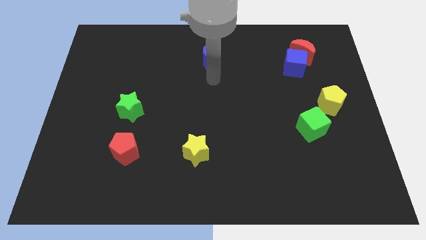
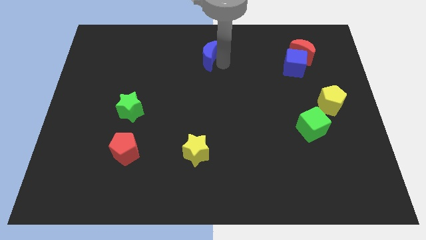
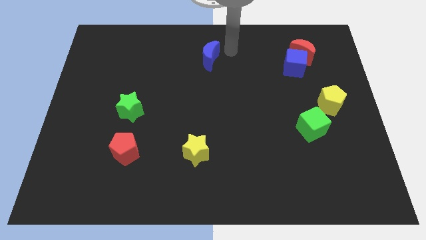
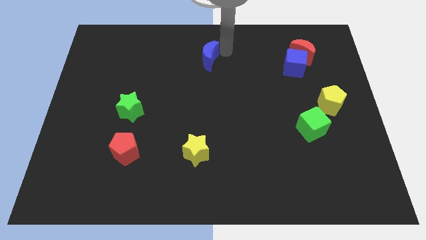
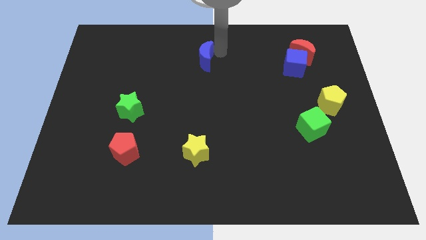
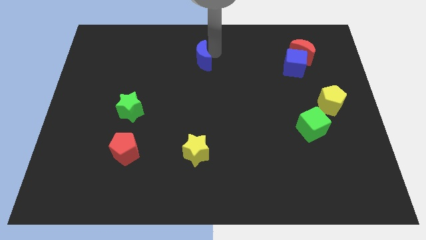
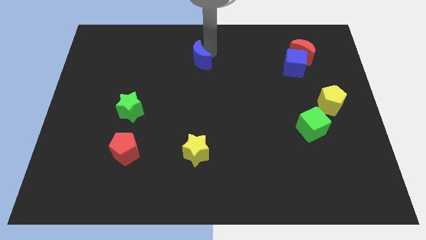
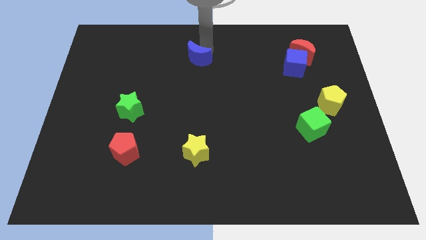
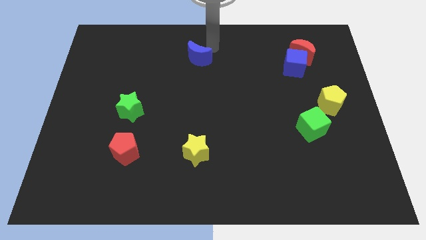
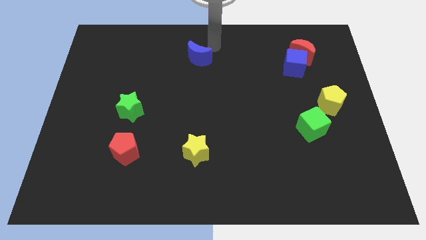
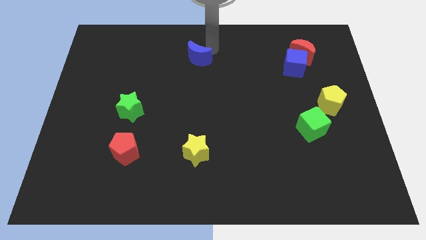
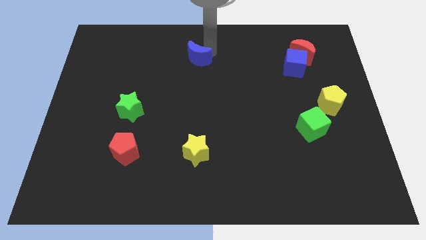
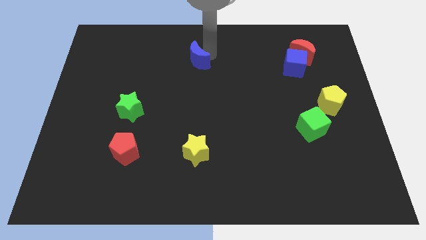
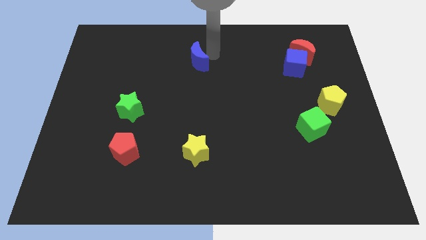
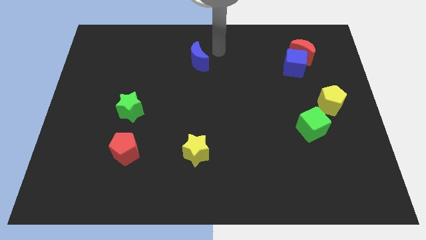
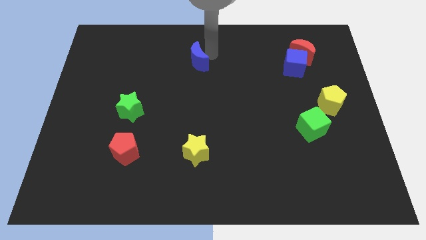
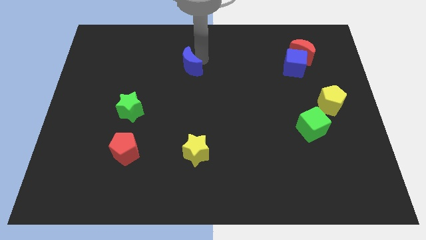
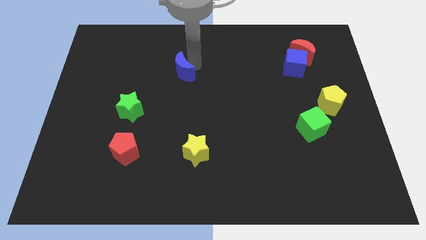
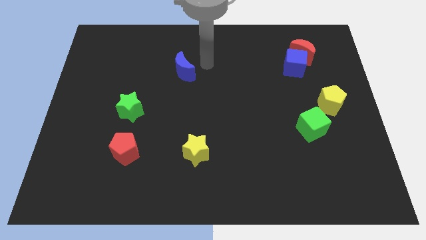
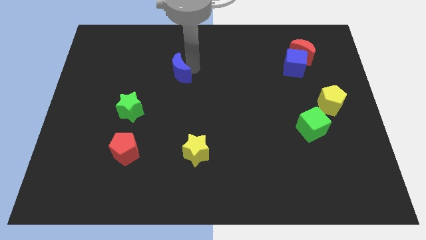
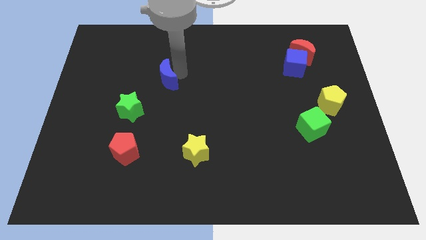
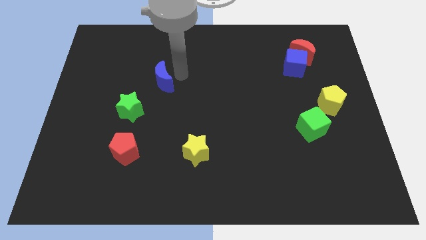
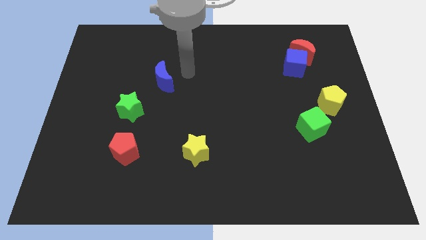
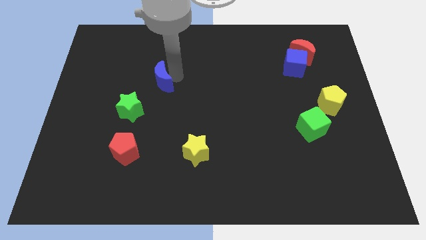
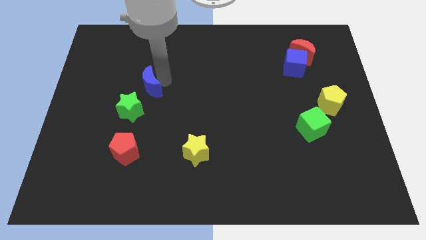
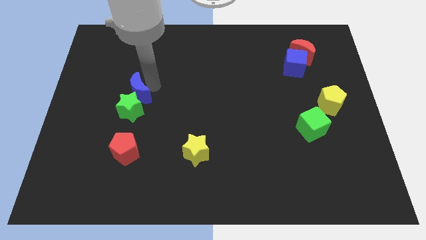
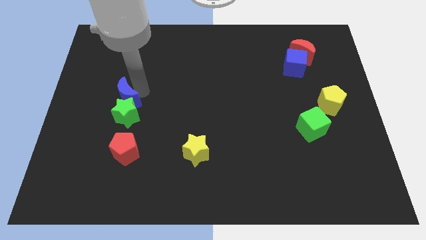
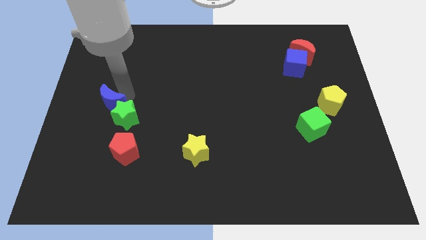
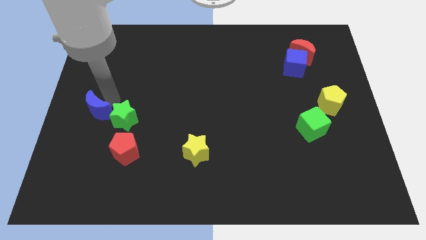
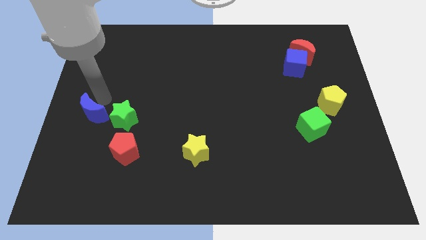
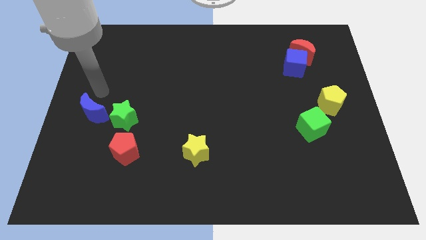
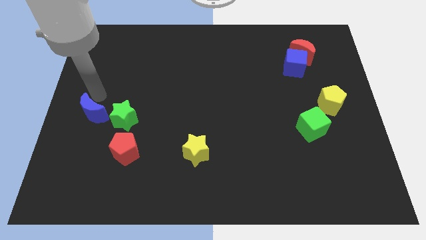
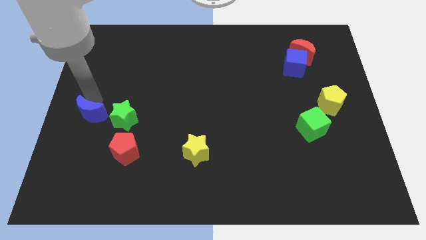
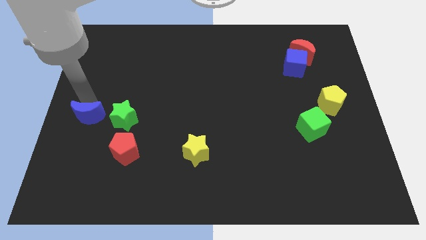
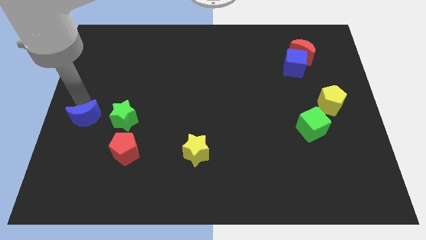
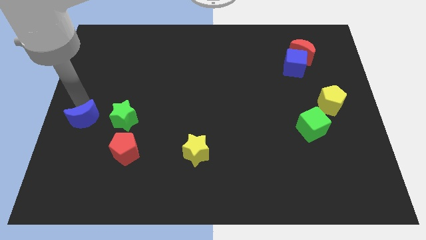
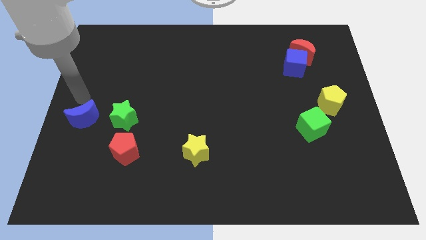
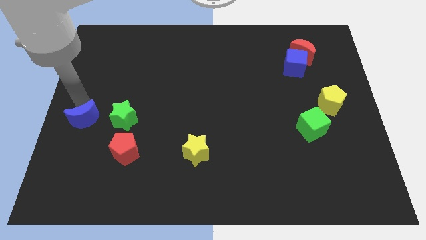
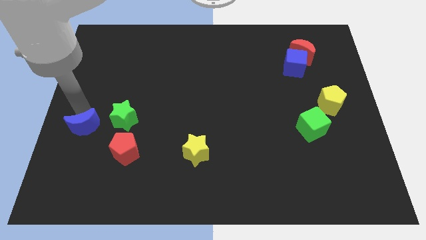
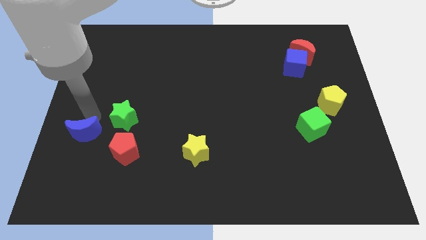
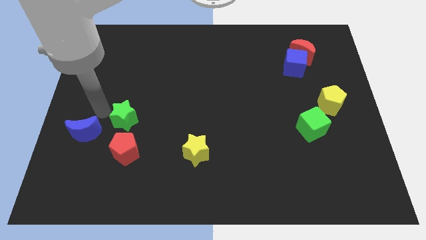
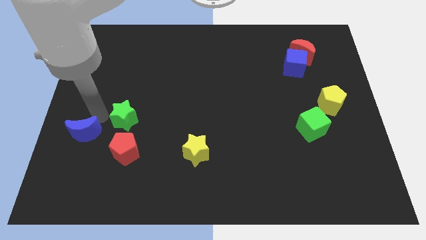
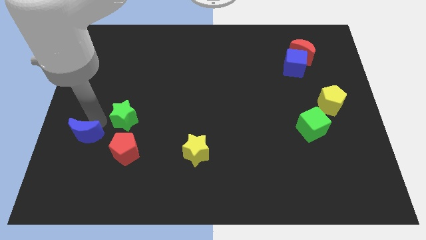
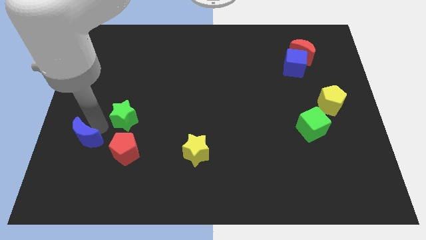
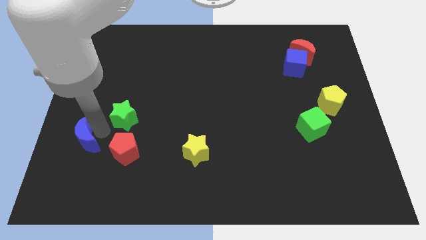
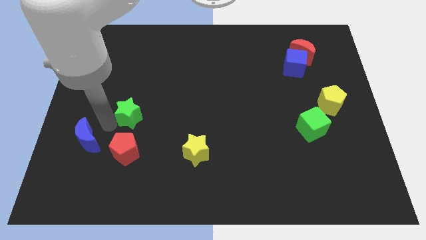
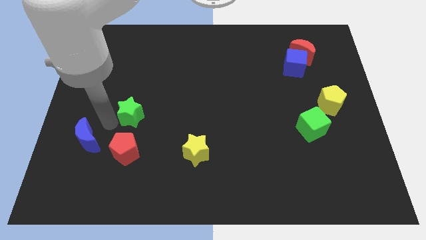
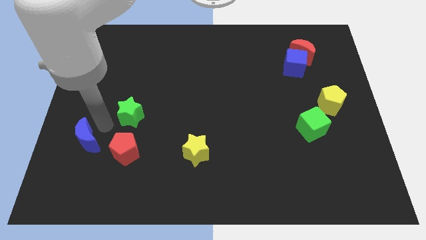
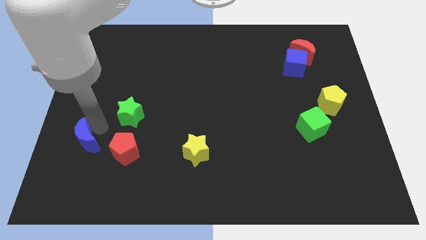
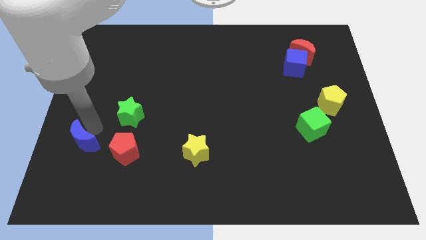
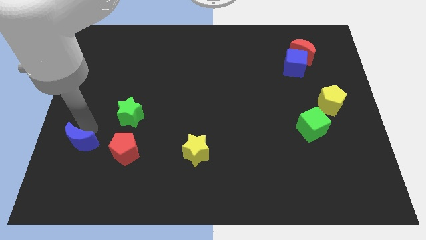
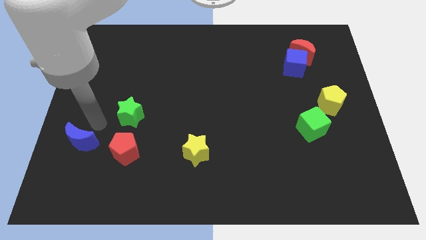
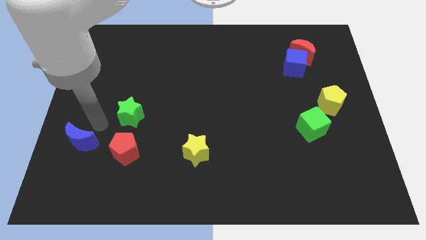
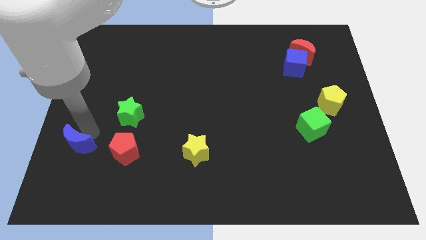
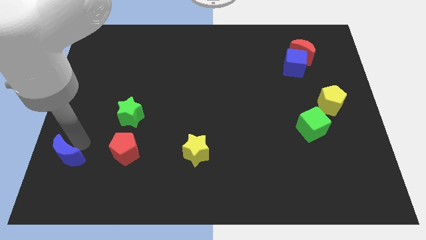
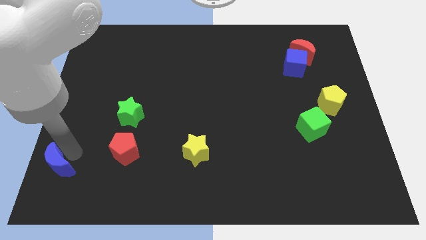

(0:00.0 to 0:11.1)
move the blue moon to the lower left corner

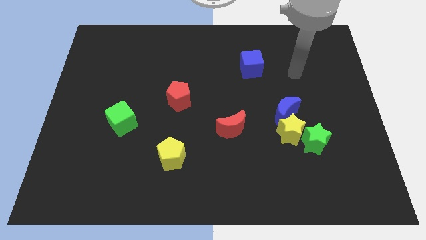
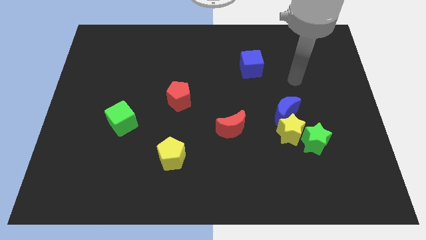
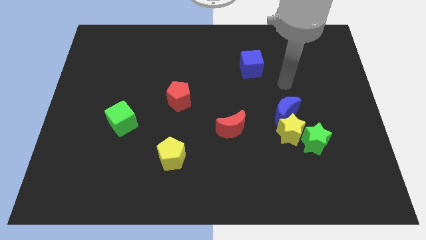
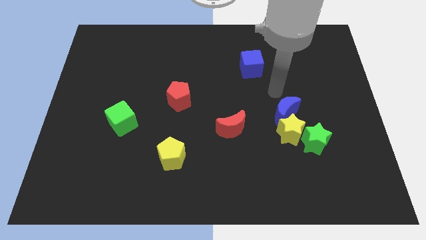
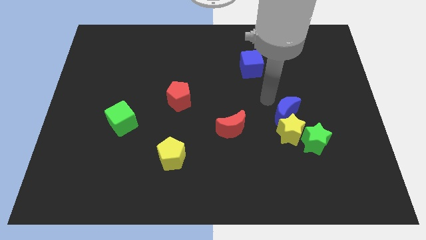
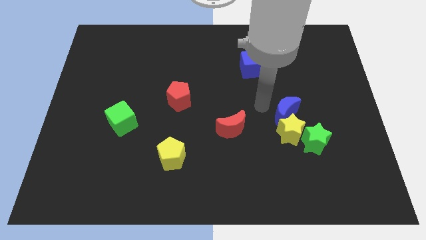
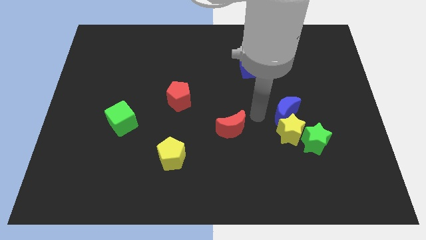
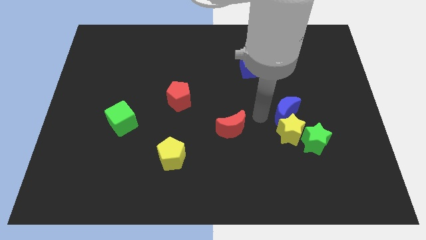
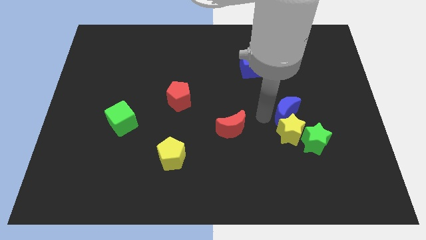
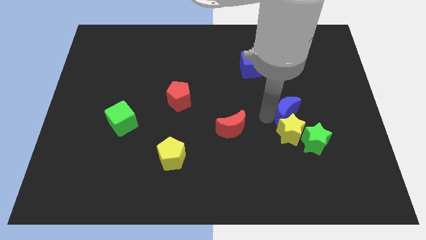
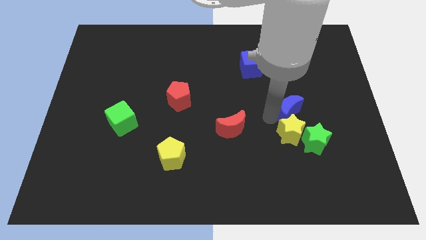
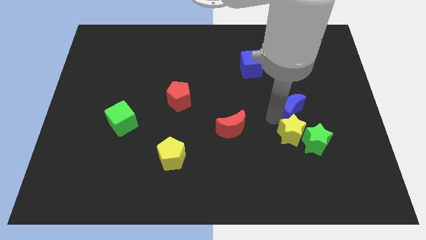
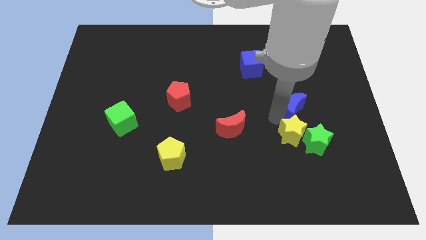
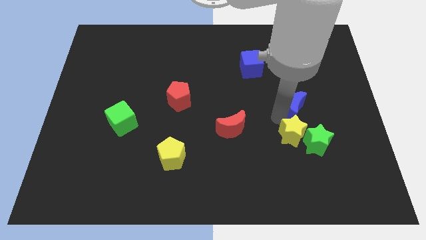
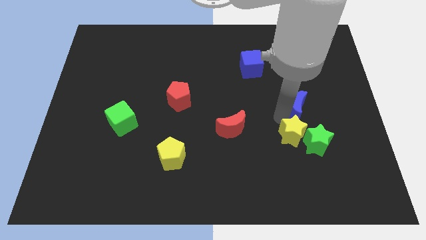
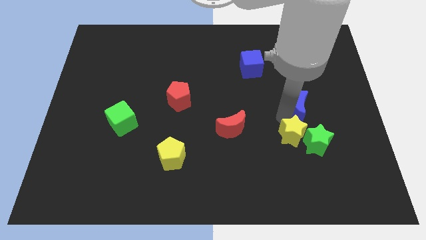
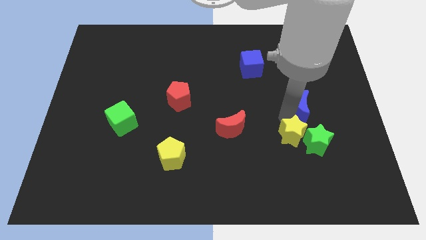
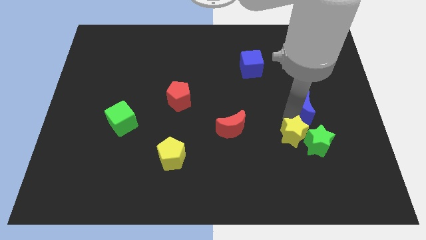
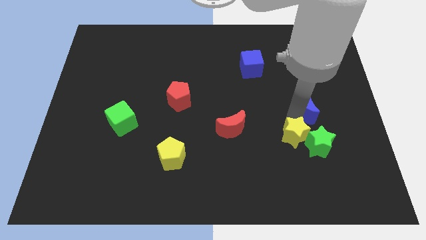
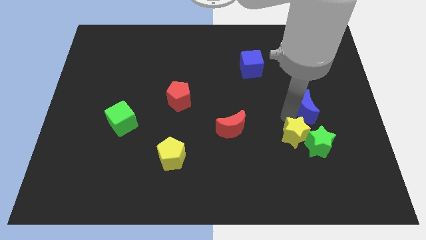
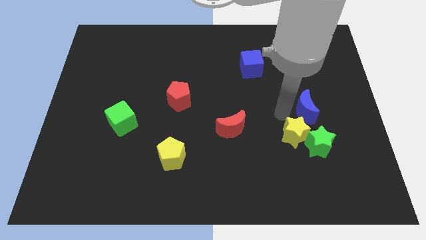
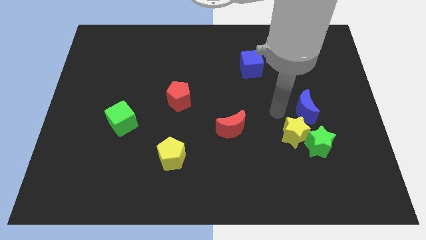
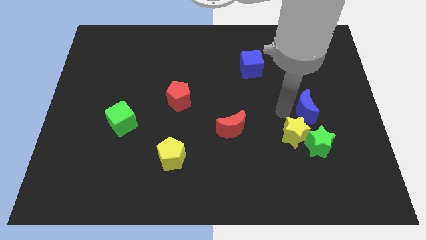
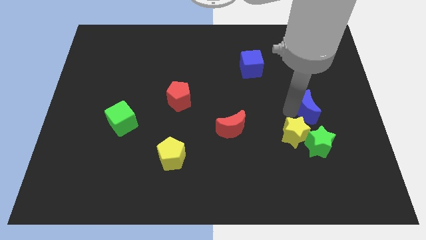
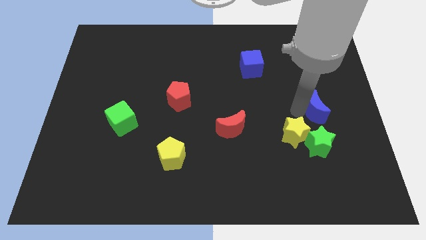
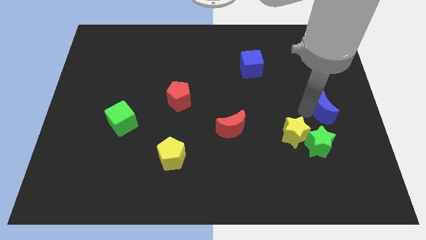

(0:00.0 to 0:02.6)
push the blue moon to the right side
